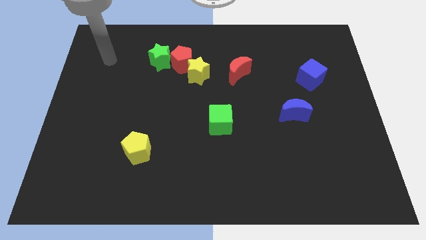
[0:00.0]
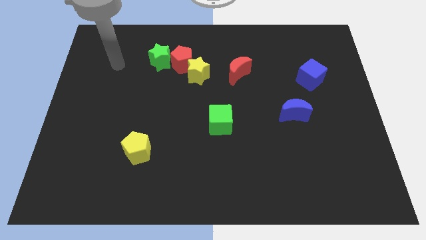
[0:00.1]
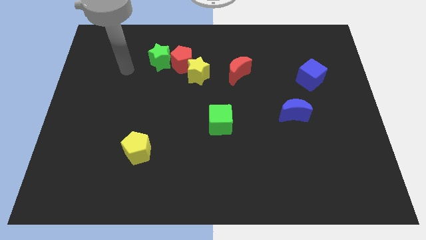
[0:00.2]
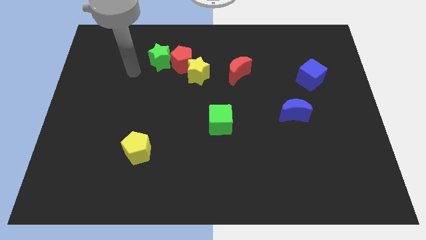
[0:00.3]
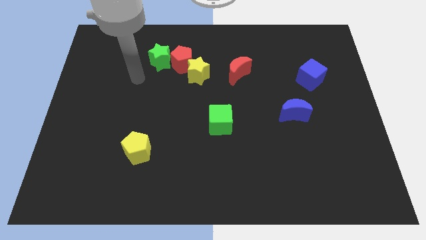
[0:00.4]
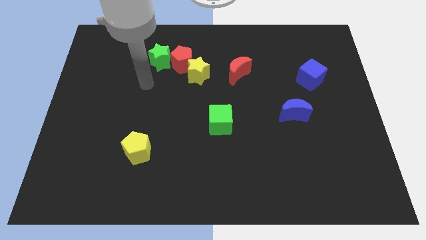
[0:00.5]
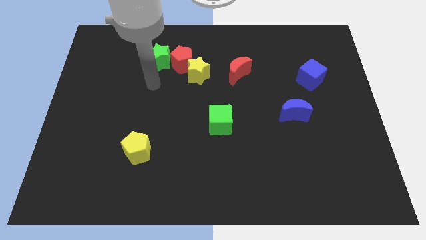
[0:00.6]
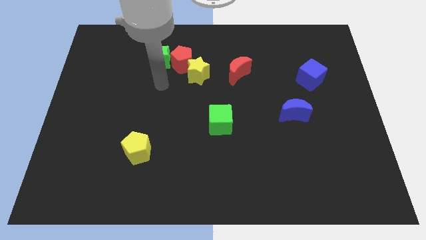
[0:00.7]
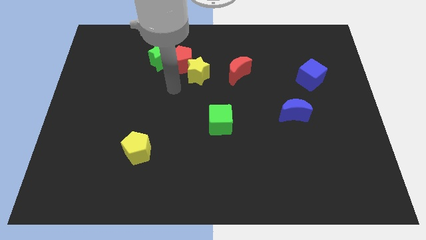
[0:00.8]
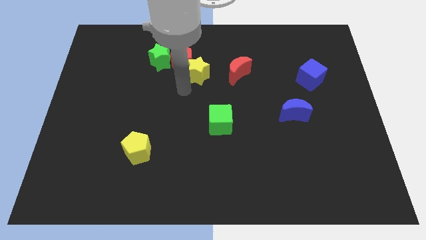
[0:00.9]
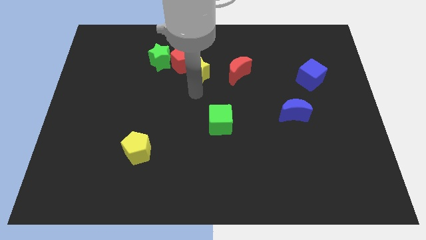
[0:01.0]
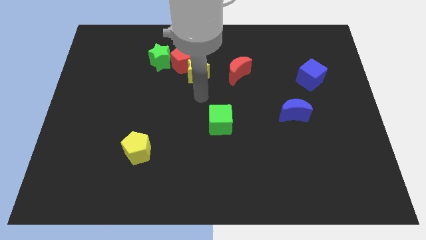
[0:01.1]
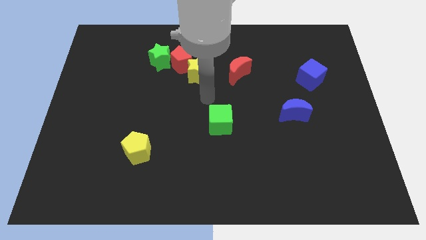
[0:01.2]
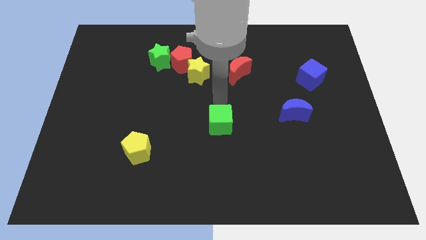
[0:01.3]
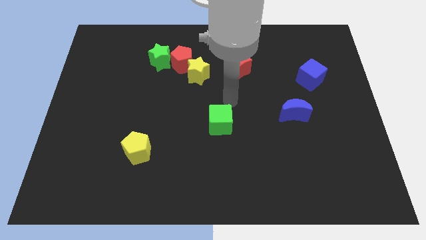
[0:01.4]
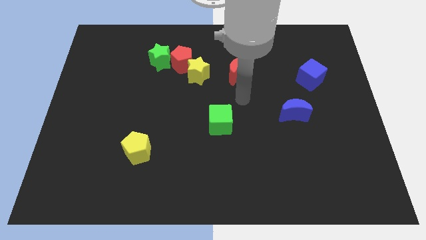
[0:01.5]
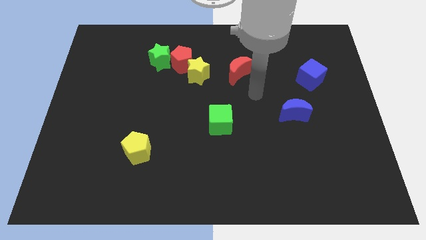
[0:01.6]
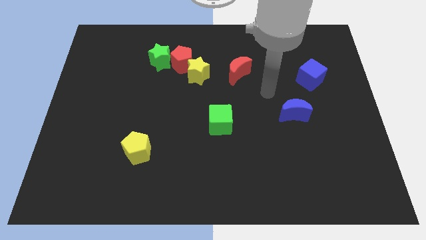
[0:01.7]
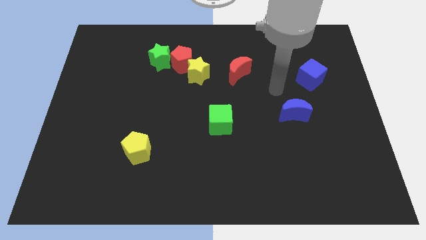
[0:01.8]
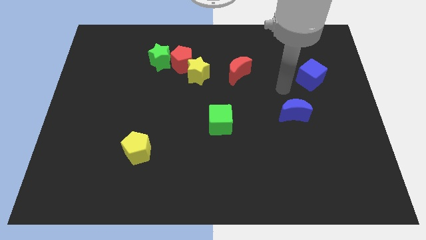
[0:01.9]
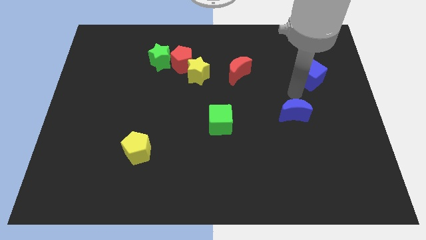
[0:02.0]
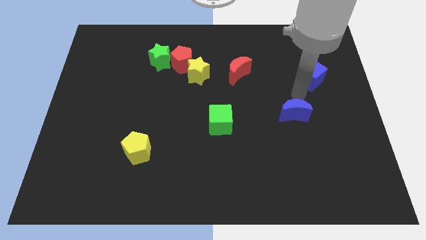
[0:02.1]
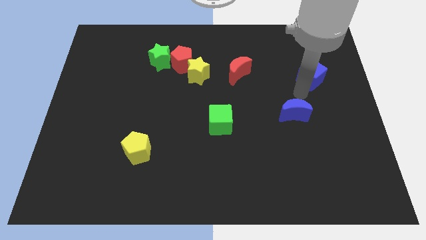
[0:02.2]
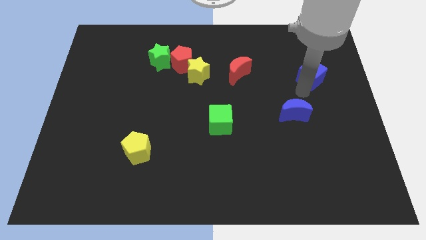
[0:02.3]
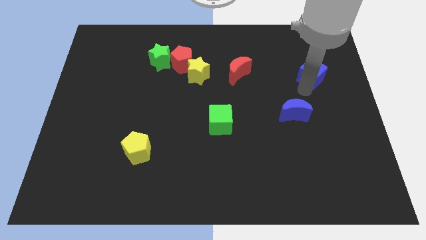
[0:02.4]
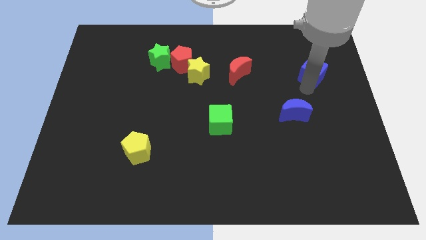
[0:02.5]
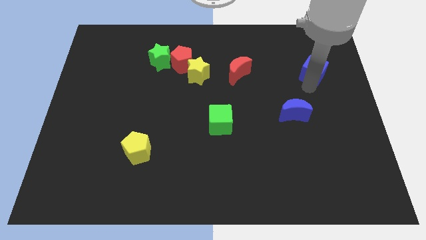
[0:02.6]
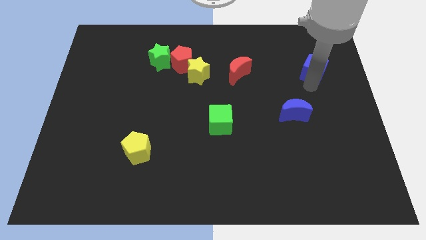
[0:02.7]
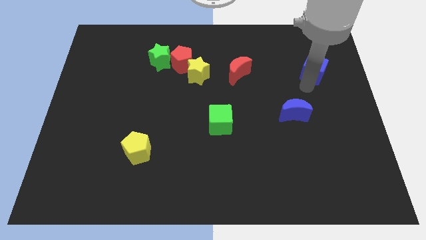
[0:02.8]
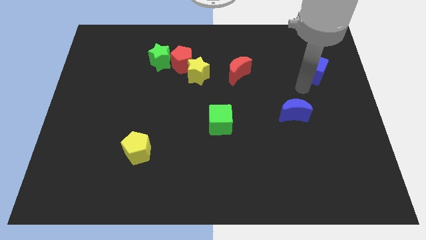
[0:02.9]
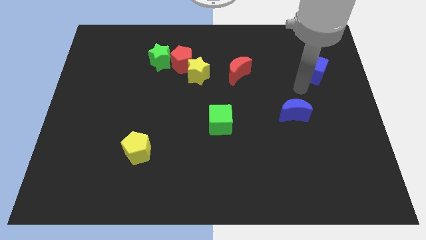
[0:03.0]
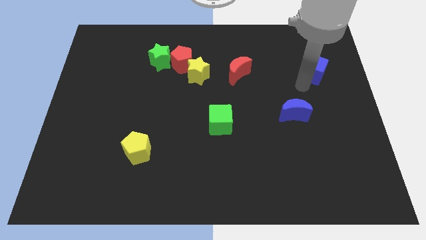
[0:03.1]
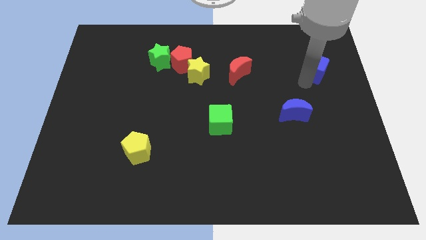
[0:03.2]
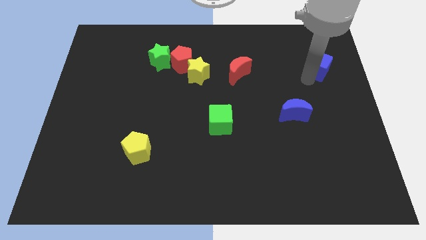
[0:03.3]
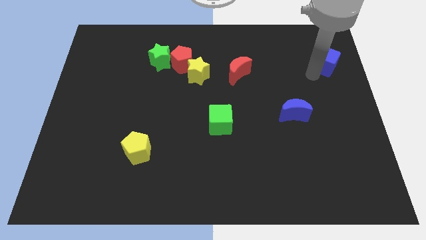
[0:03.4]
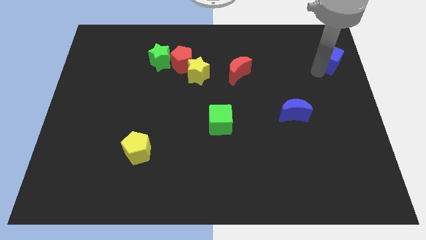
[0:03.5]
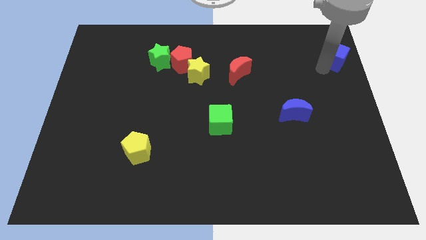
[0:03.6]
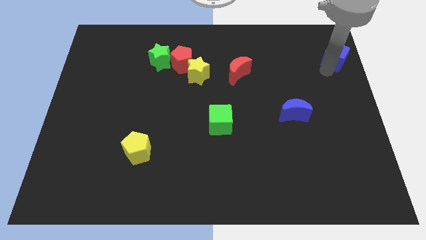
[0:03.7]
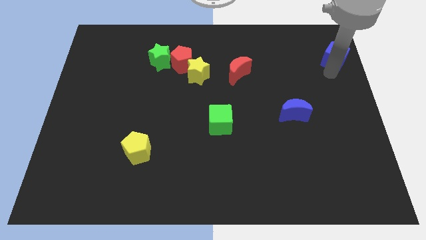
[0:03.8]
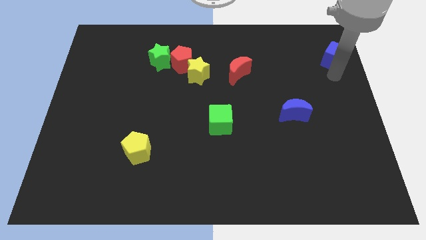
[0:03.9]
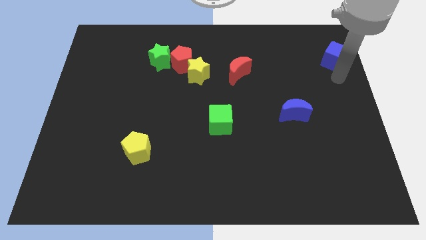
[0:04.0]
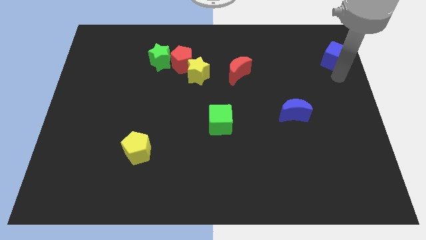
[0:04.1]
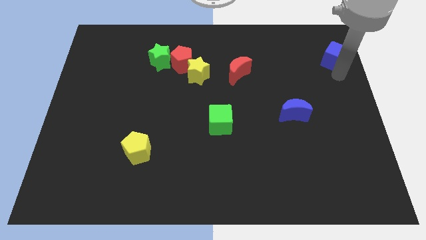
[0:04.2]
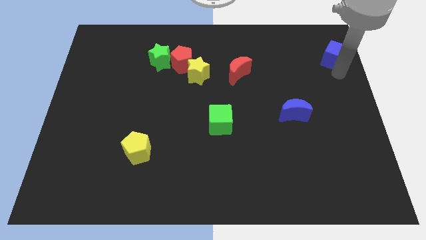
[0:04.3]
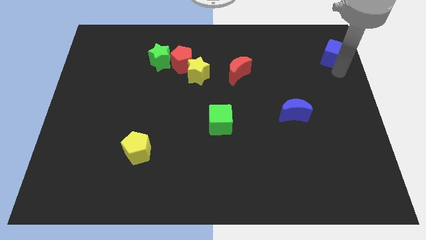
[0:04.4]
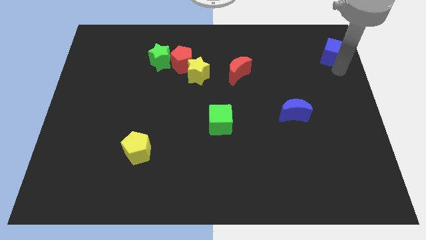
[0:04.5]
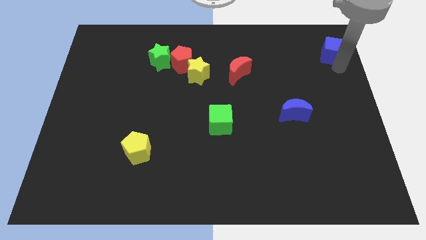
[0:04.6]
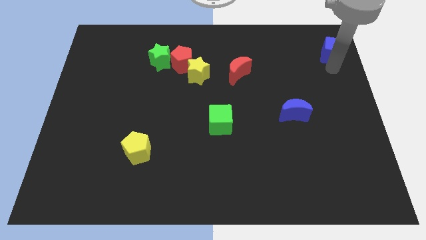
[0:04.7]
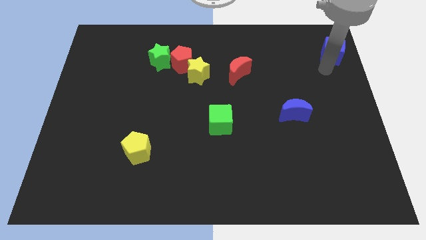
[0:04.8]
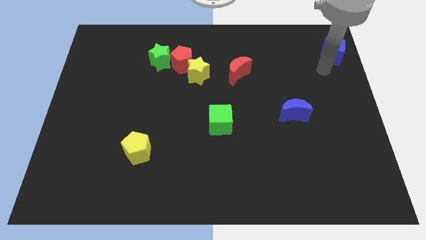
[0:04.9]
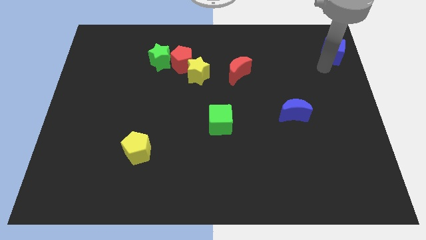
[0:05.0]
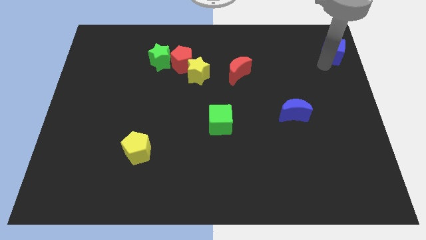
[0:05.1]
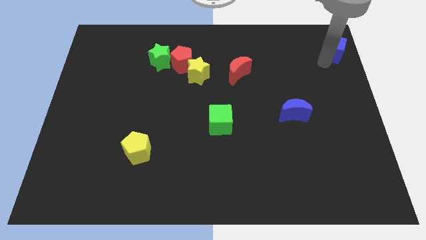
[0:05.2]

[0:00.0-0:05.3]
put the blue cube to the upper right corner

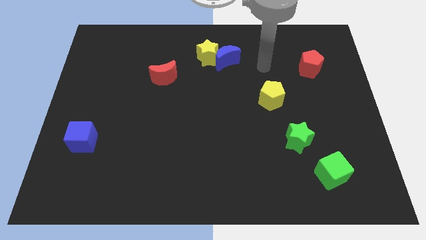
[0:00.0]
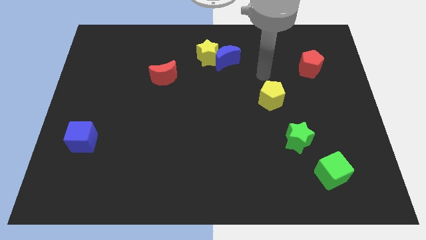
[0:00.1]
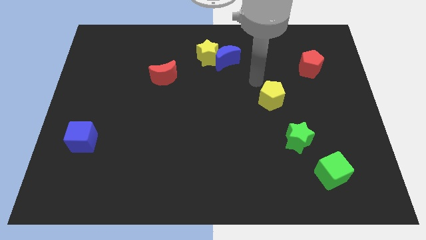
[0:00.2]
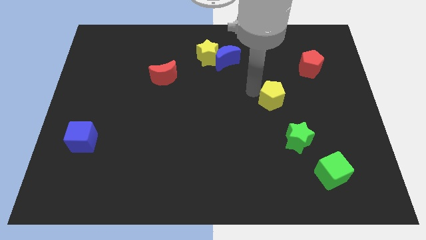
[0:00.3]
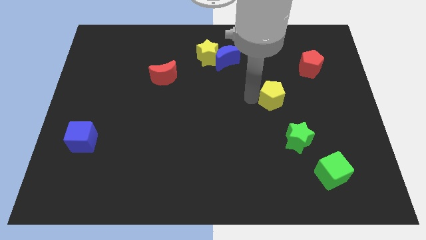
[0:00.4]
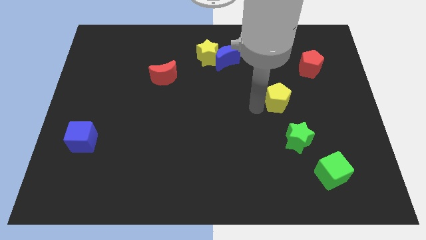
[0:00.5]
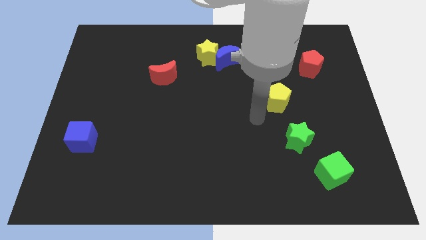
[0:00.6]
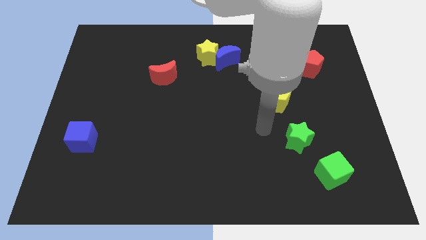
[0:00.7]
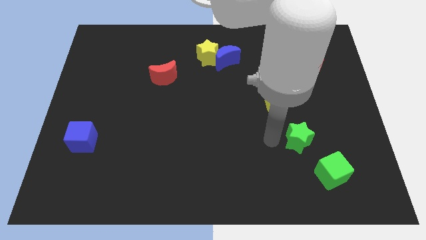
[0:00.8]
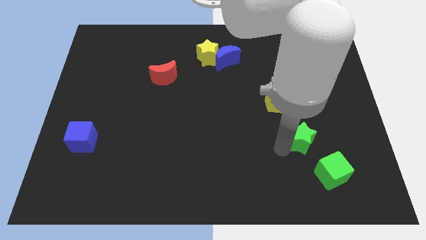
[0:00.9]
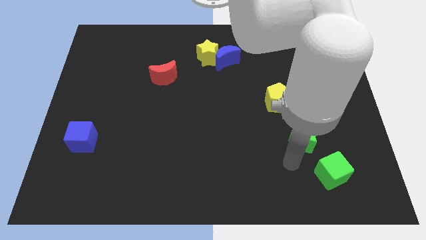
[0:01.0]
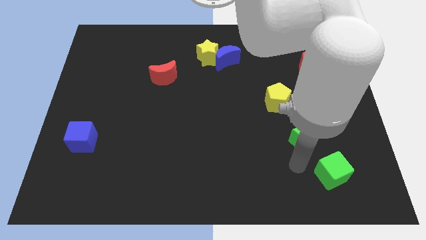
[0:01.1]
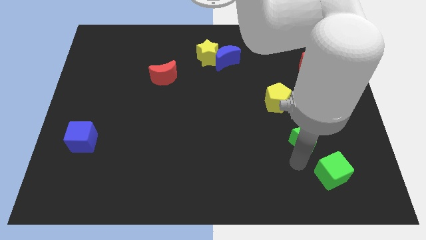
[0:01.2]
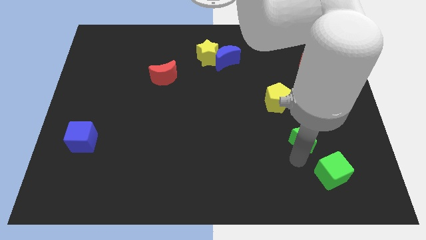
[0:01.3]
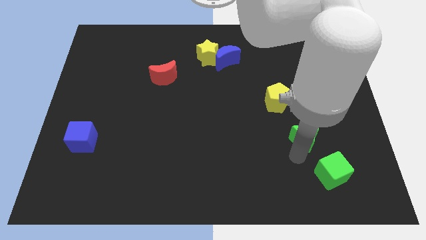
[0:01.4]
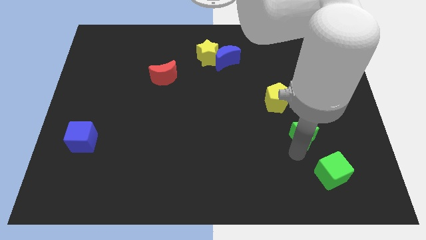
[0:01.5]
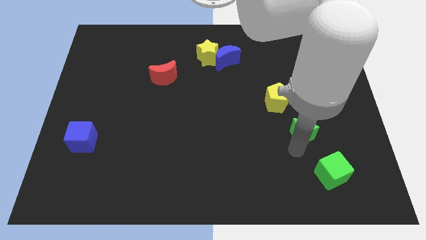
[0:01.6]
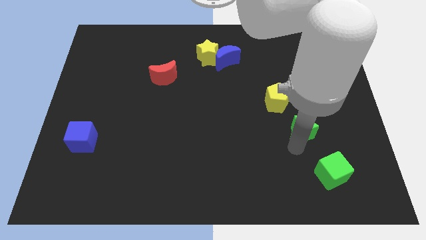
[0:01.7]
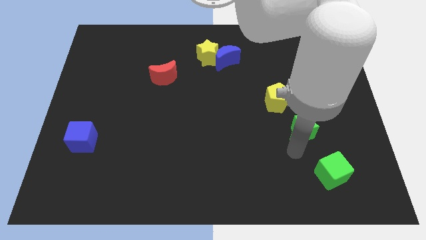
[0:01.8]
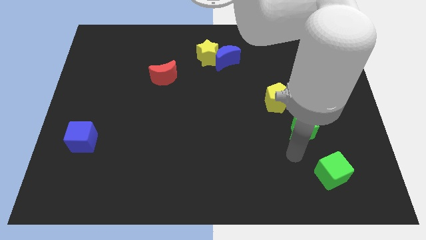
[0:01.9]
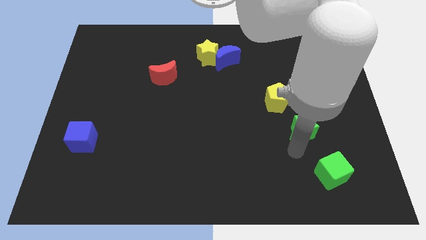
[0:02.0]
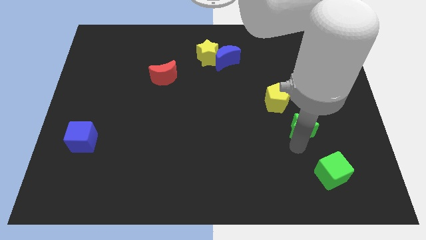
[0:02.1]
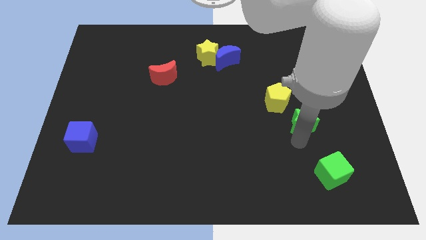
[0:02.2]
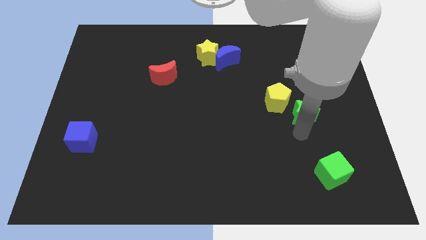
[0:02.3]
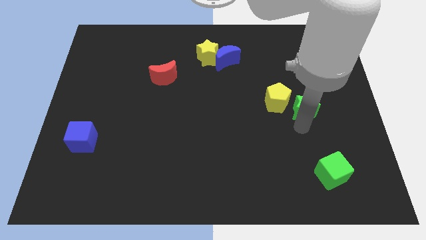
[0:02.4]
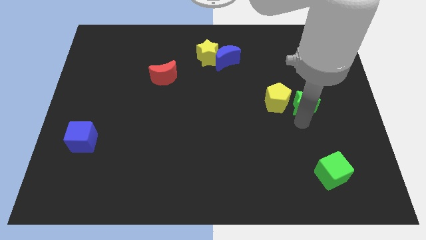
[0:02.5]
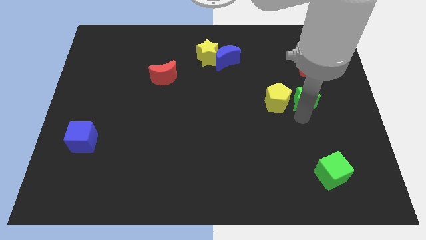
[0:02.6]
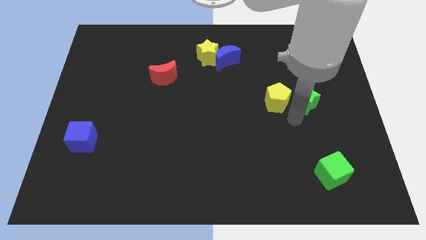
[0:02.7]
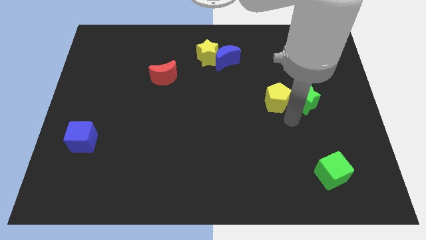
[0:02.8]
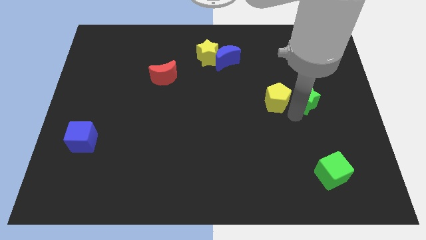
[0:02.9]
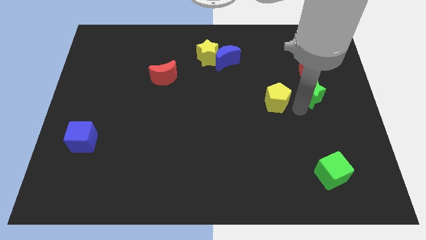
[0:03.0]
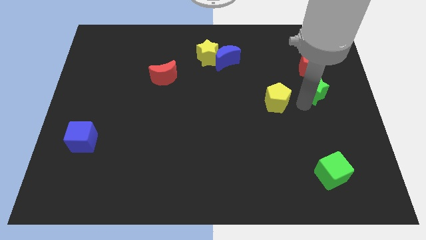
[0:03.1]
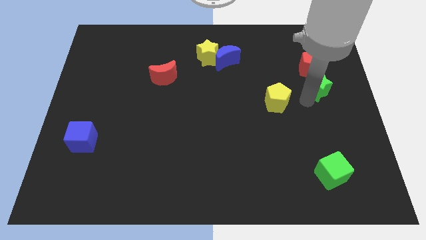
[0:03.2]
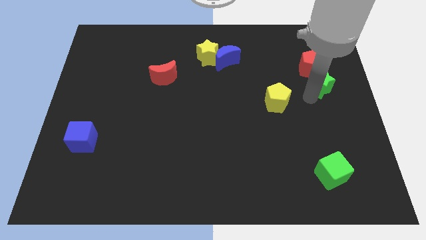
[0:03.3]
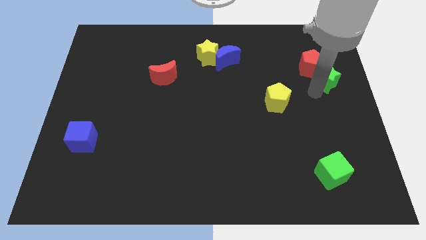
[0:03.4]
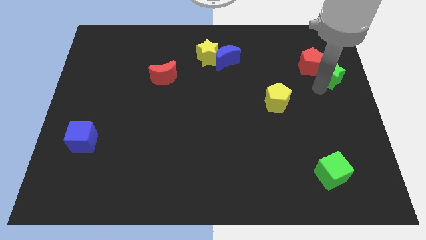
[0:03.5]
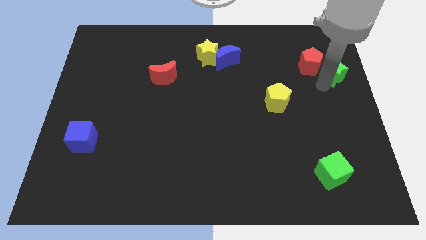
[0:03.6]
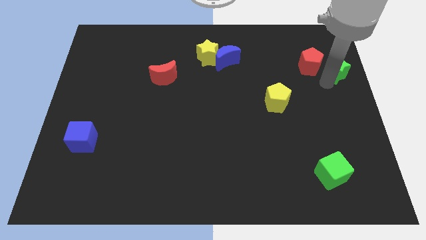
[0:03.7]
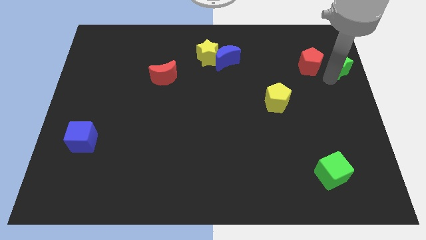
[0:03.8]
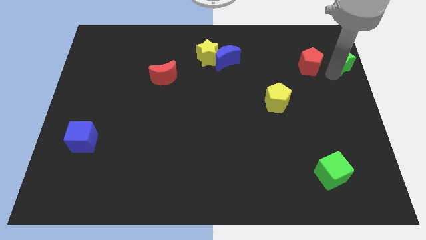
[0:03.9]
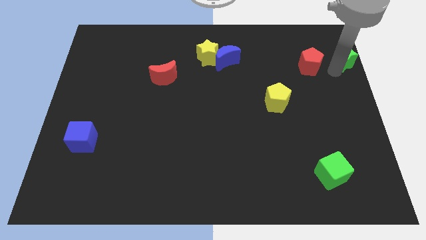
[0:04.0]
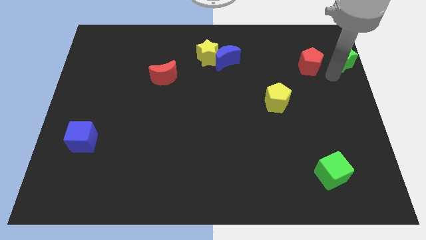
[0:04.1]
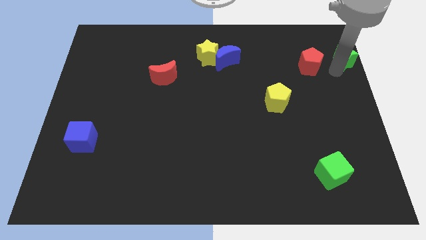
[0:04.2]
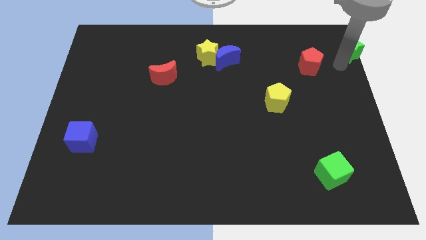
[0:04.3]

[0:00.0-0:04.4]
put the green star to the top right corner
